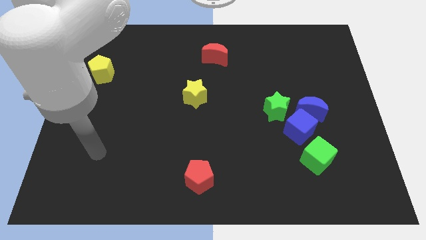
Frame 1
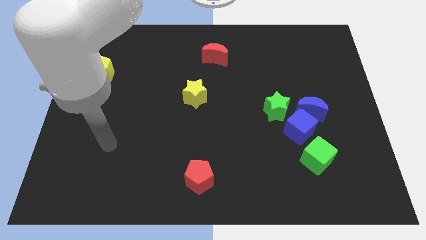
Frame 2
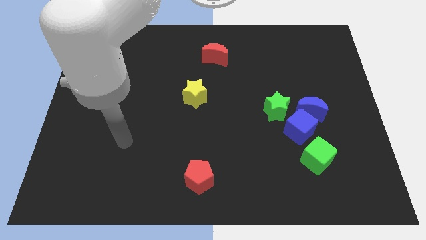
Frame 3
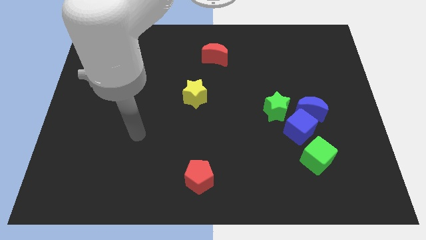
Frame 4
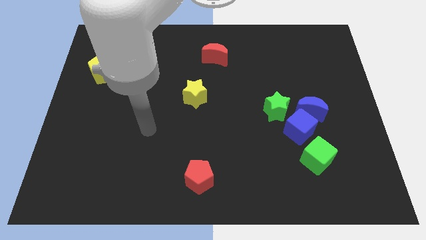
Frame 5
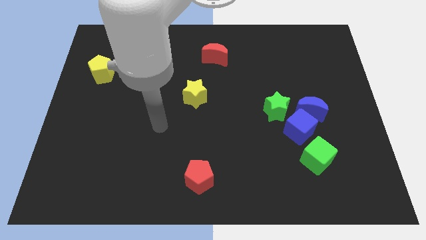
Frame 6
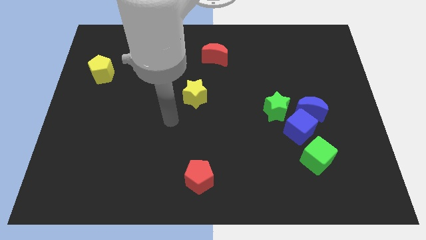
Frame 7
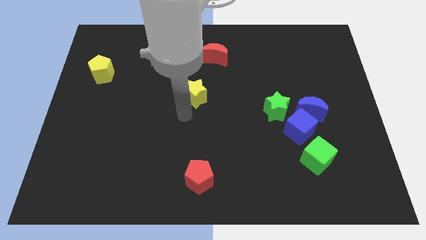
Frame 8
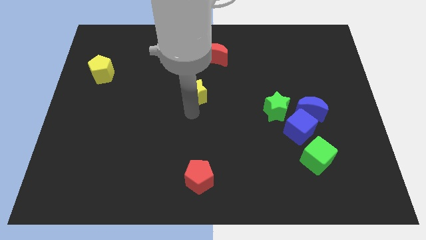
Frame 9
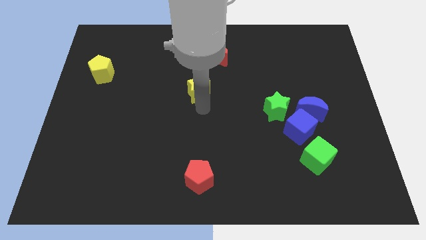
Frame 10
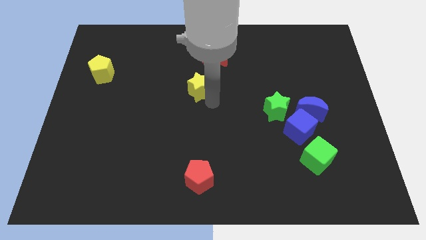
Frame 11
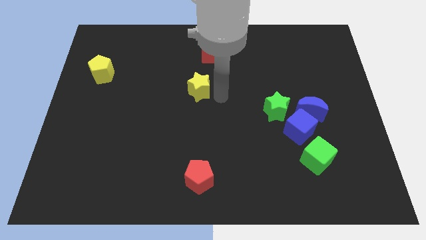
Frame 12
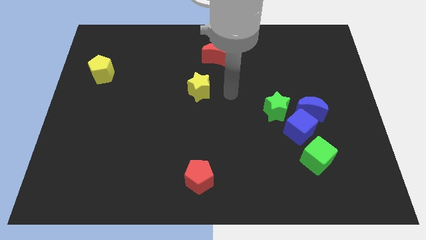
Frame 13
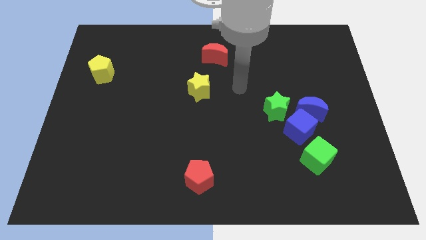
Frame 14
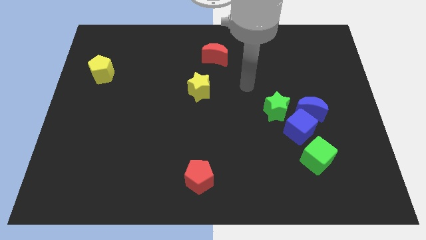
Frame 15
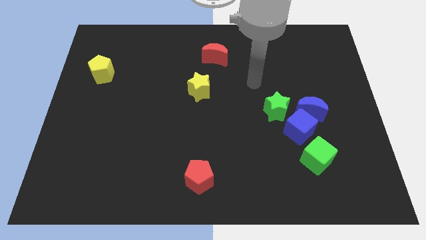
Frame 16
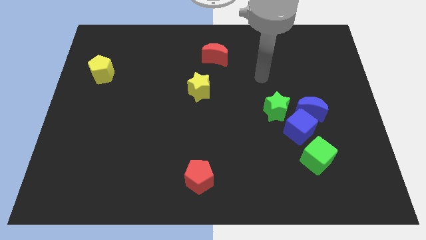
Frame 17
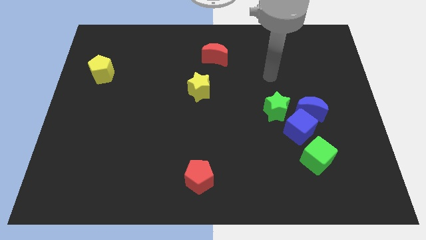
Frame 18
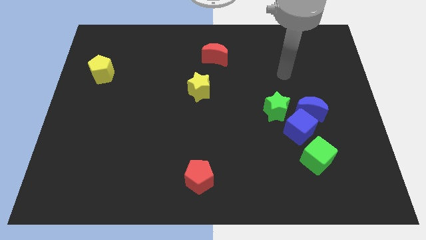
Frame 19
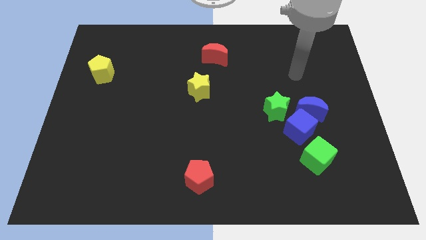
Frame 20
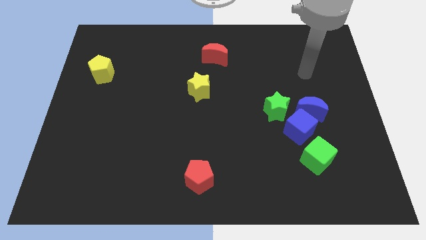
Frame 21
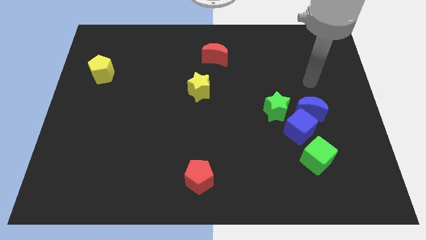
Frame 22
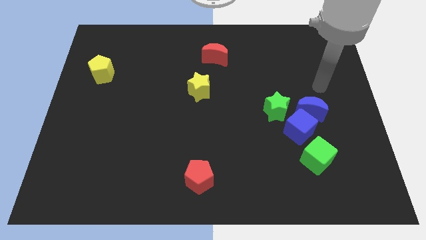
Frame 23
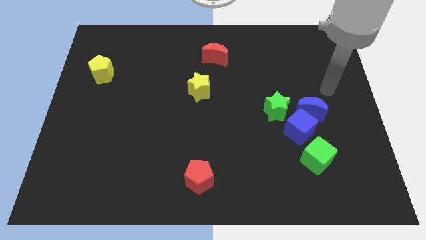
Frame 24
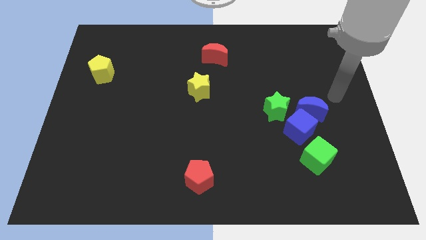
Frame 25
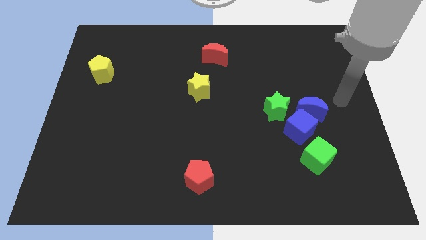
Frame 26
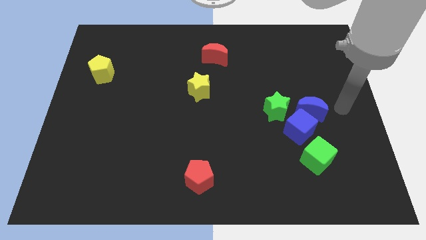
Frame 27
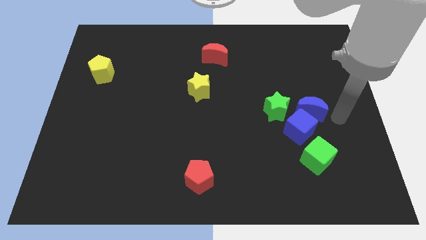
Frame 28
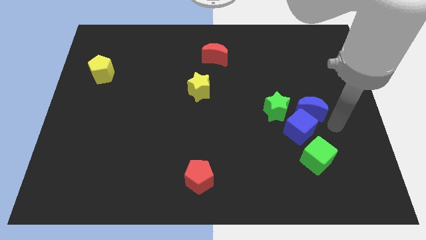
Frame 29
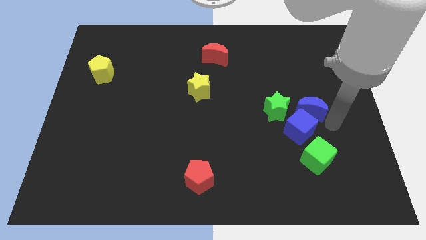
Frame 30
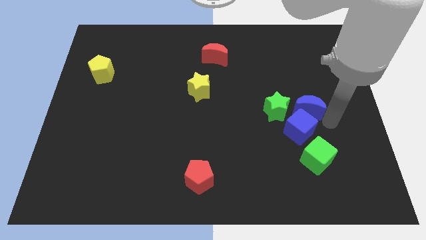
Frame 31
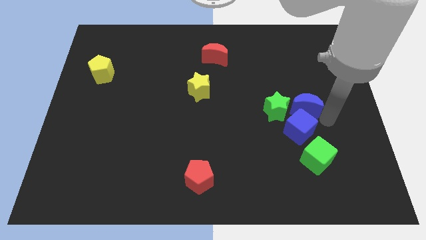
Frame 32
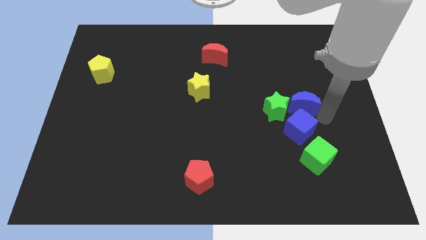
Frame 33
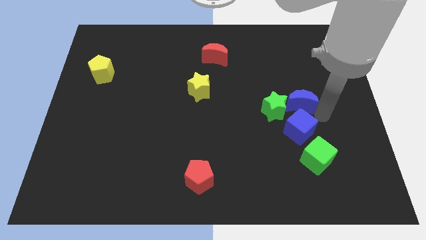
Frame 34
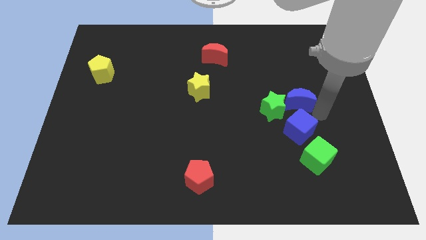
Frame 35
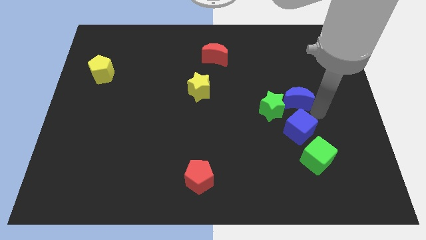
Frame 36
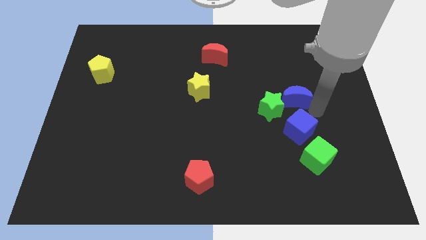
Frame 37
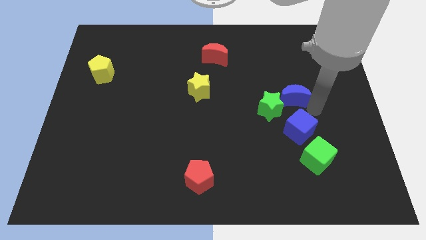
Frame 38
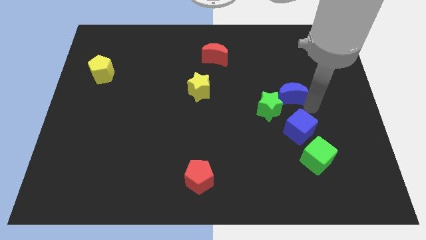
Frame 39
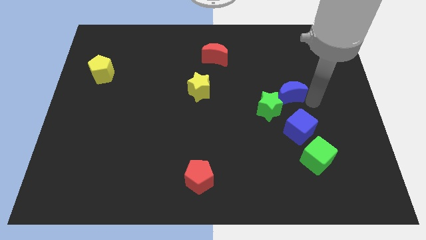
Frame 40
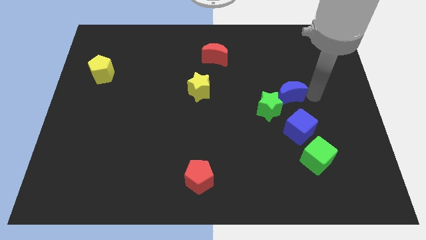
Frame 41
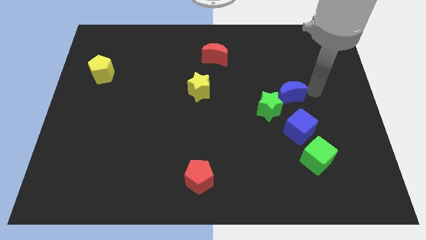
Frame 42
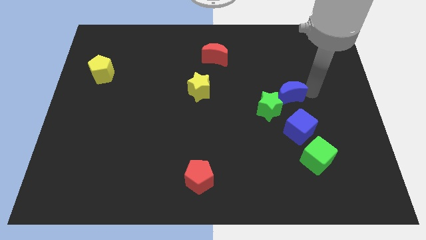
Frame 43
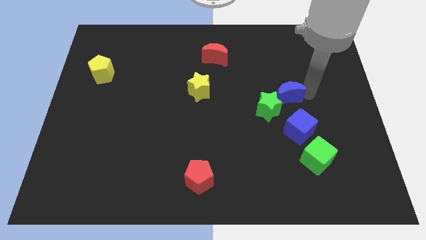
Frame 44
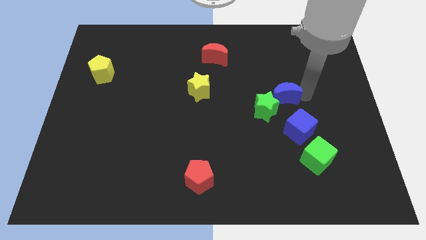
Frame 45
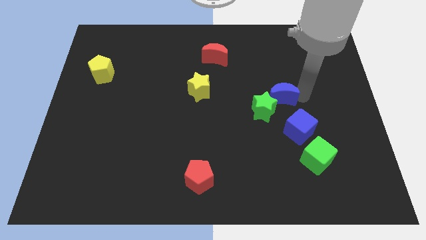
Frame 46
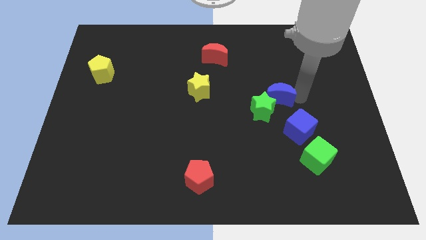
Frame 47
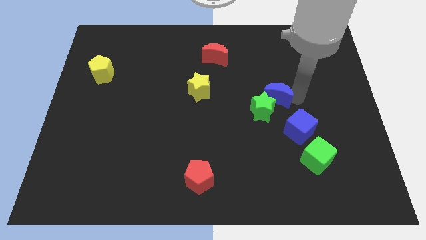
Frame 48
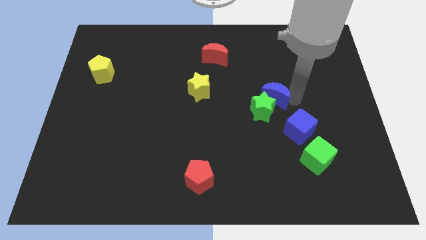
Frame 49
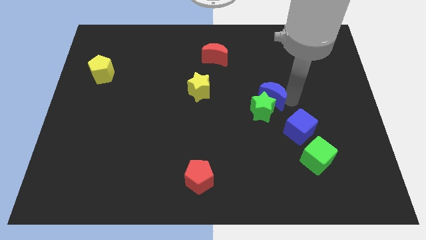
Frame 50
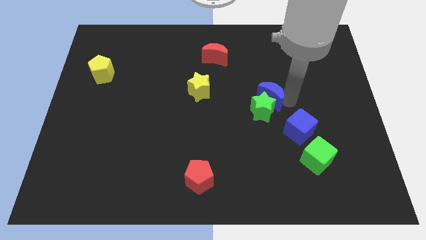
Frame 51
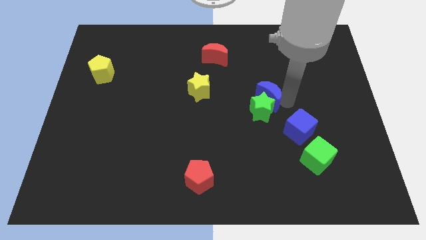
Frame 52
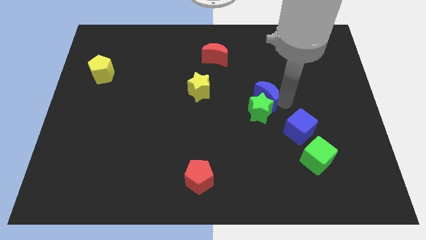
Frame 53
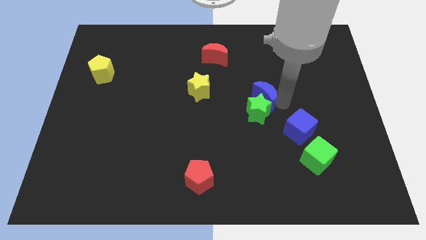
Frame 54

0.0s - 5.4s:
push the blue moon to the middle of the board

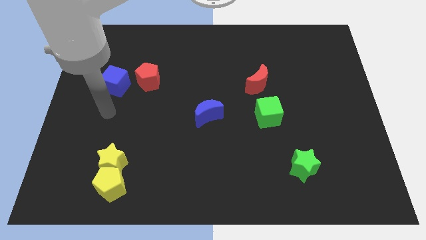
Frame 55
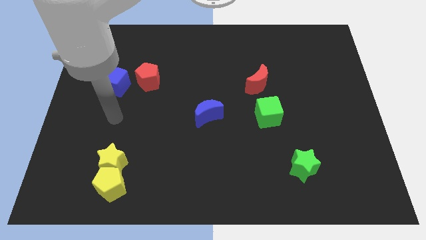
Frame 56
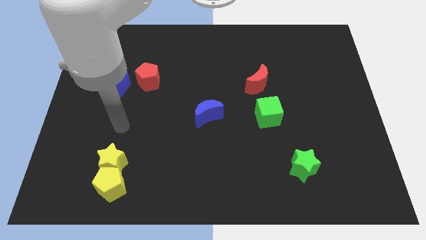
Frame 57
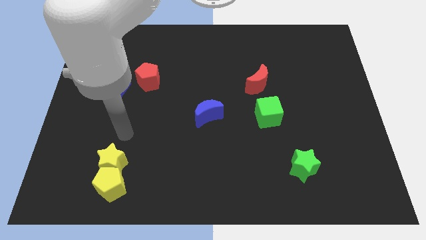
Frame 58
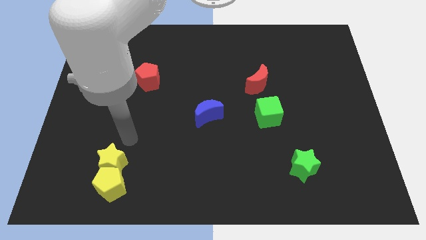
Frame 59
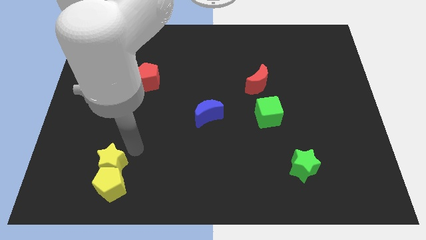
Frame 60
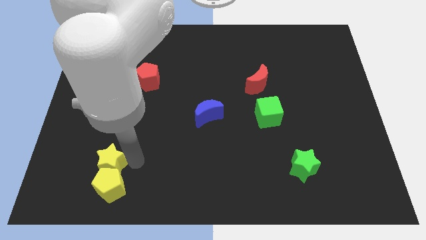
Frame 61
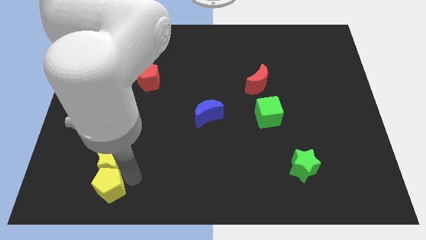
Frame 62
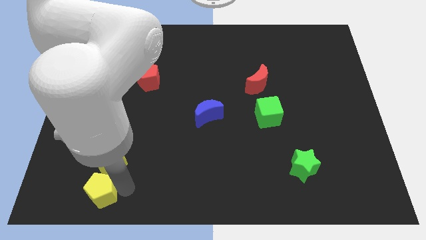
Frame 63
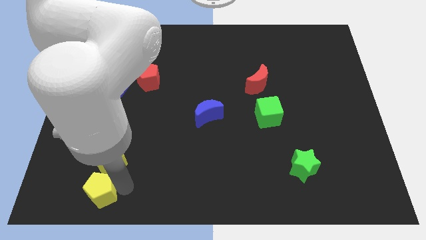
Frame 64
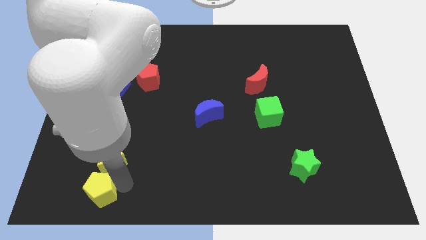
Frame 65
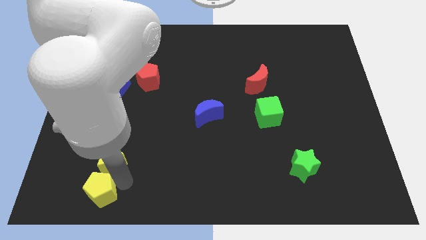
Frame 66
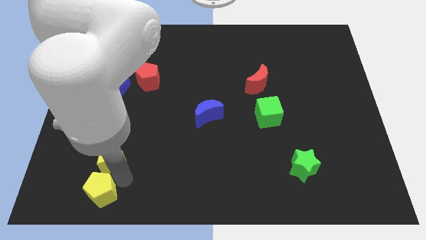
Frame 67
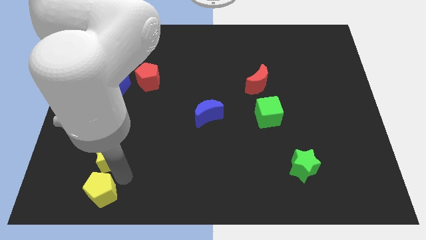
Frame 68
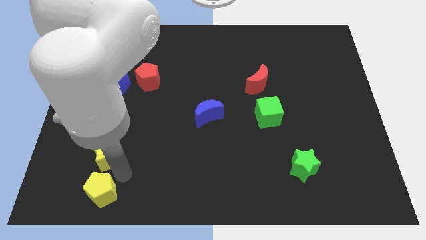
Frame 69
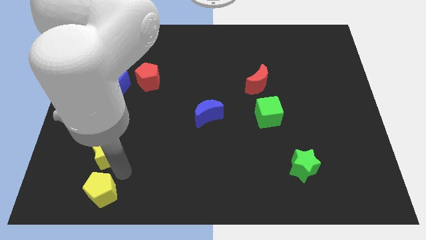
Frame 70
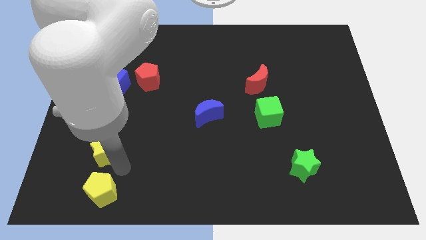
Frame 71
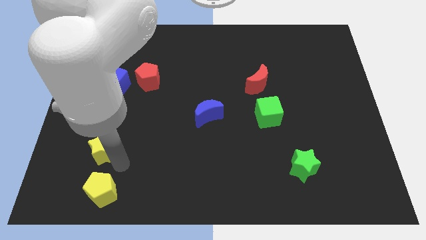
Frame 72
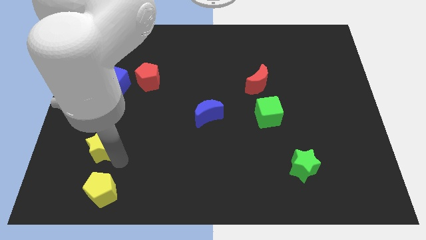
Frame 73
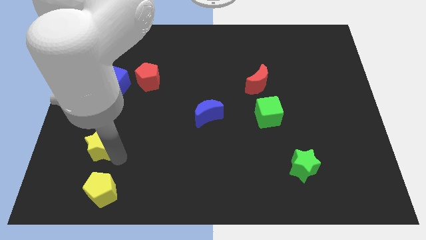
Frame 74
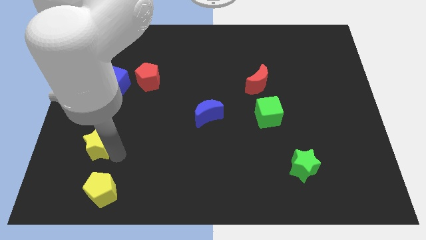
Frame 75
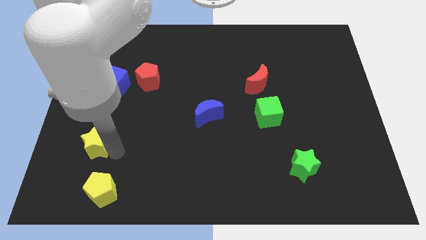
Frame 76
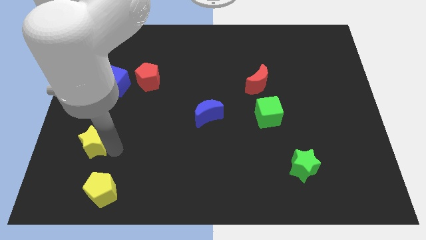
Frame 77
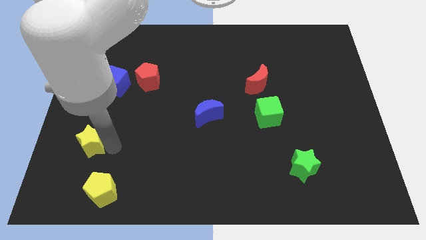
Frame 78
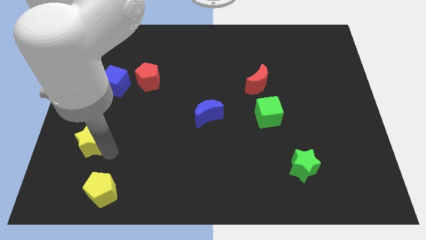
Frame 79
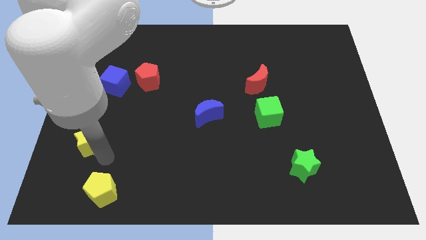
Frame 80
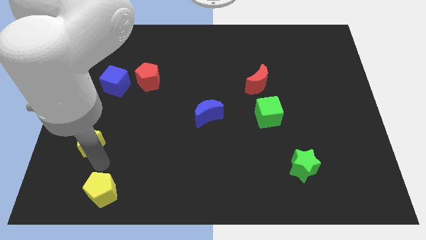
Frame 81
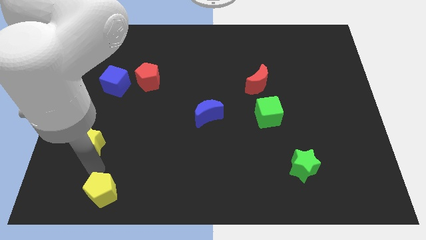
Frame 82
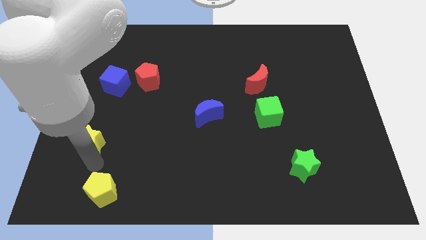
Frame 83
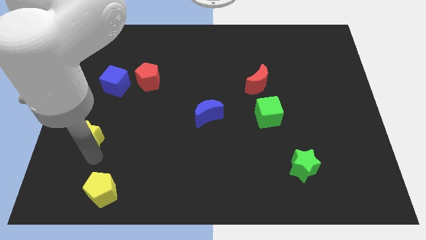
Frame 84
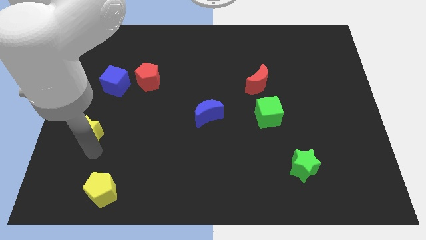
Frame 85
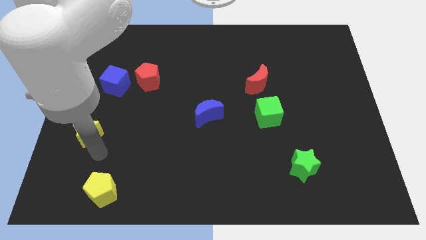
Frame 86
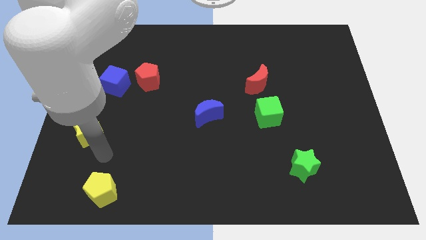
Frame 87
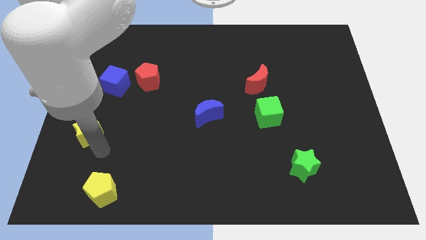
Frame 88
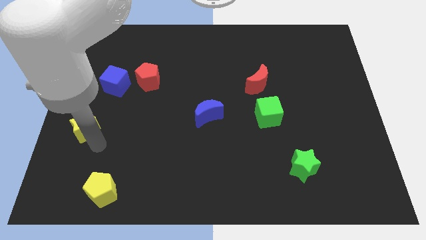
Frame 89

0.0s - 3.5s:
slide the yellow star to the center left
